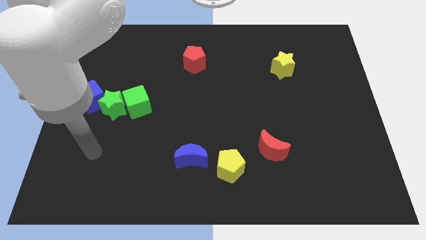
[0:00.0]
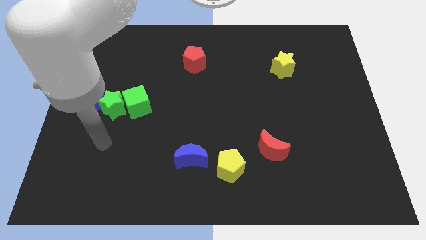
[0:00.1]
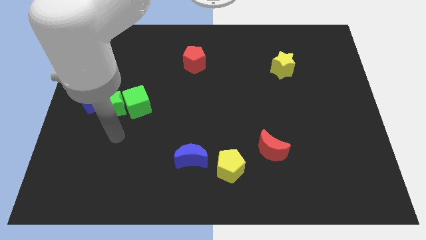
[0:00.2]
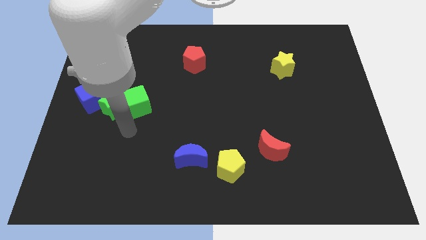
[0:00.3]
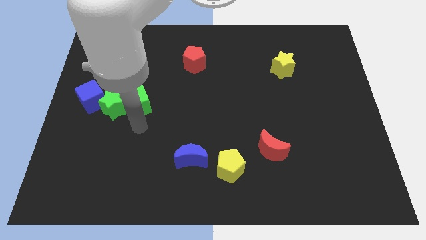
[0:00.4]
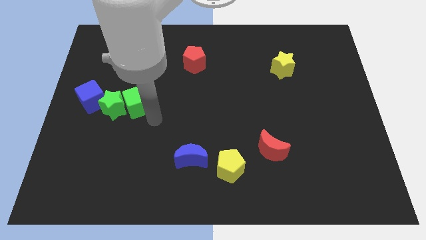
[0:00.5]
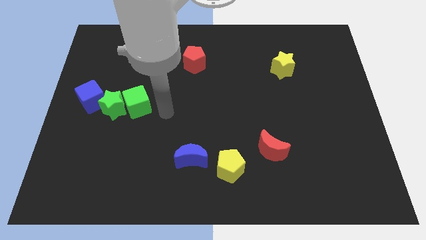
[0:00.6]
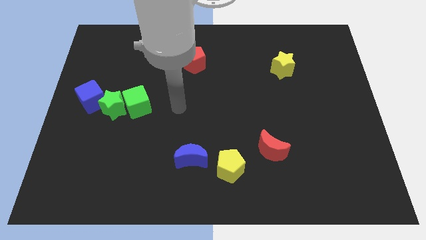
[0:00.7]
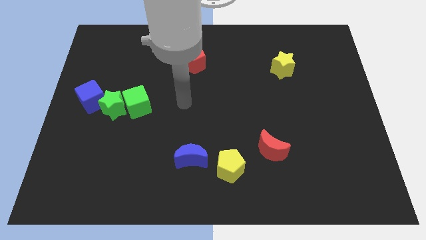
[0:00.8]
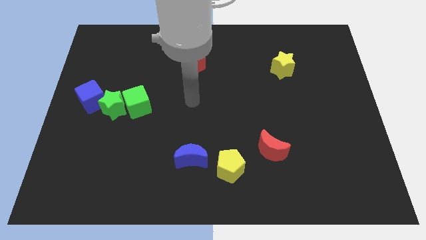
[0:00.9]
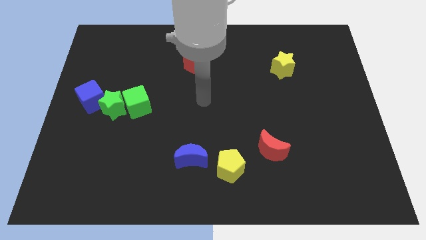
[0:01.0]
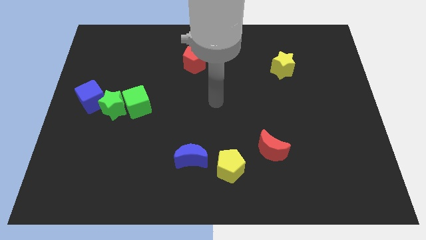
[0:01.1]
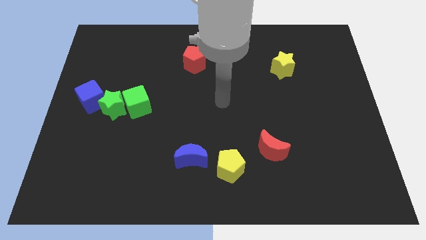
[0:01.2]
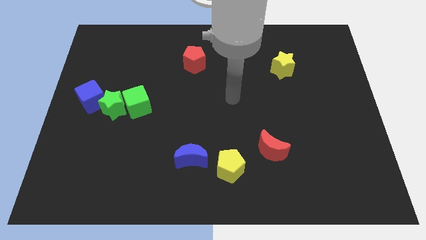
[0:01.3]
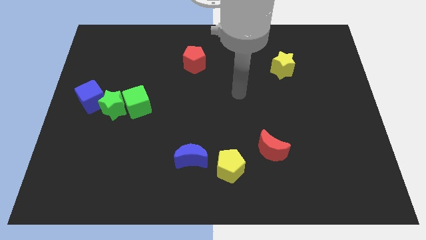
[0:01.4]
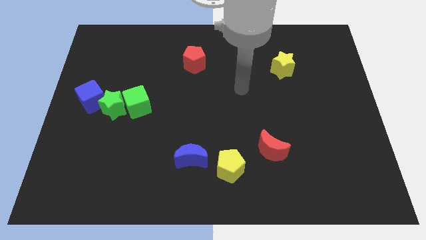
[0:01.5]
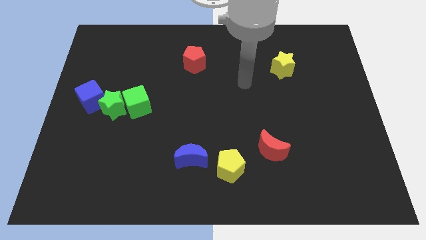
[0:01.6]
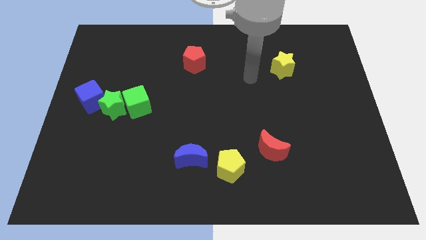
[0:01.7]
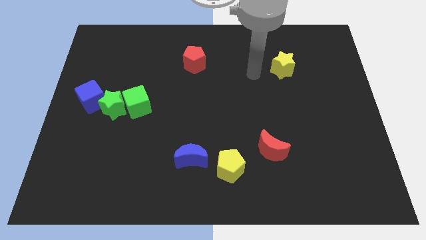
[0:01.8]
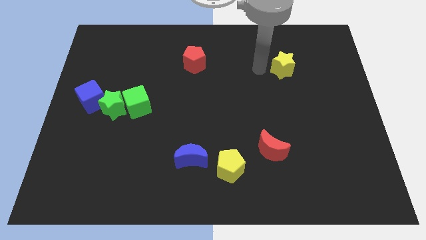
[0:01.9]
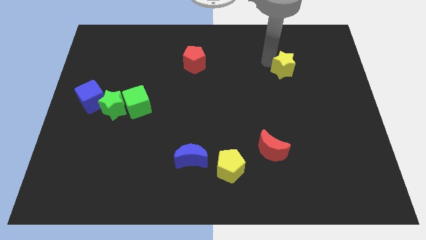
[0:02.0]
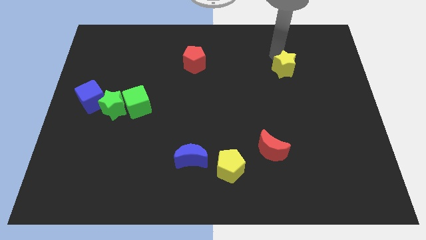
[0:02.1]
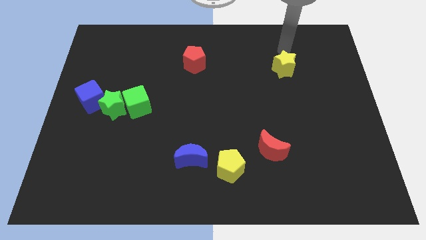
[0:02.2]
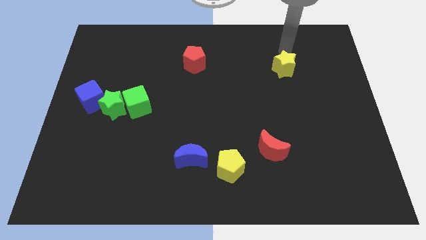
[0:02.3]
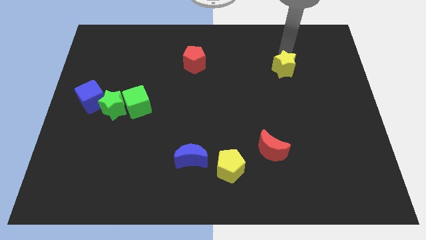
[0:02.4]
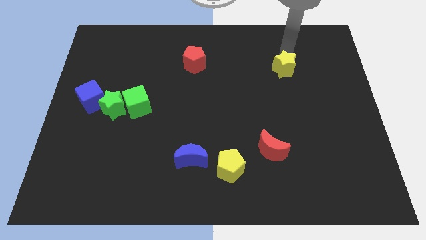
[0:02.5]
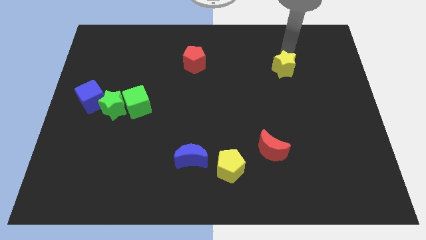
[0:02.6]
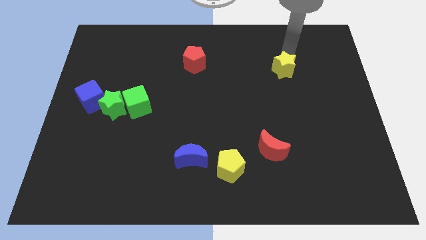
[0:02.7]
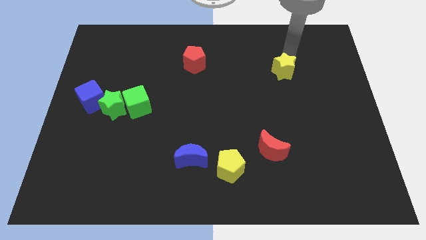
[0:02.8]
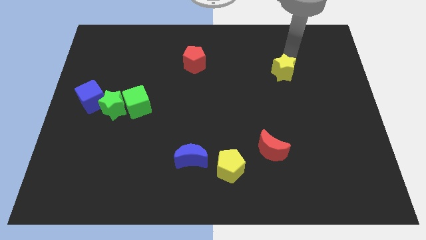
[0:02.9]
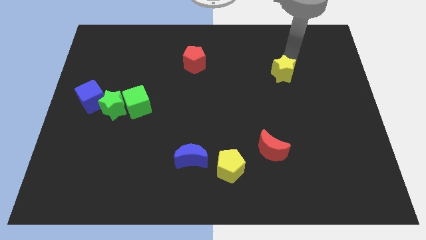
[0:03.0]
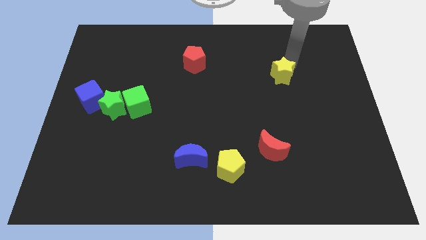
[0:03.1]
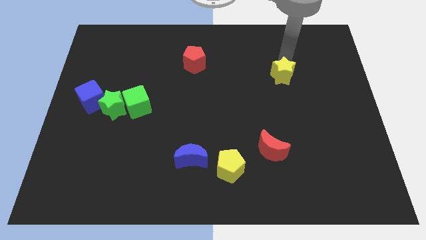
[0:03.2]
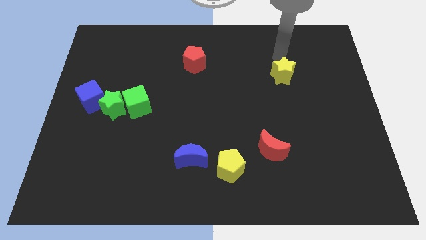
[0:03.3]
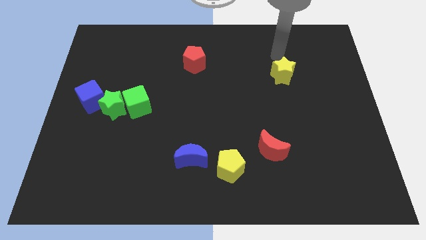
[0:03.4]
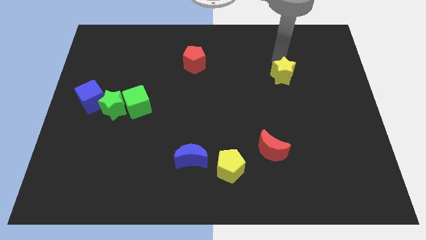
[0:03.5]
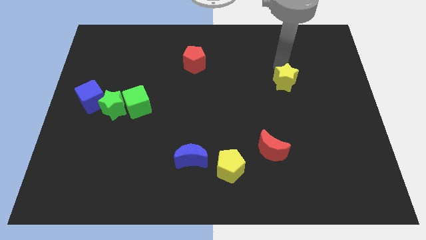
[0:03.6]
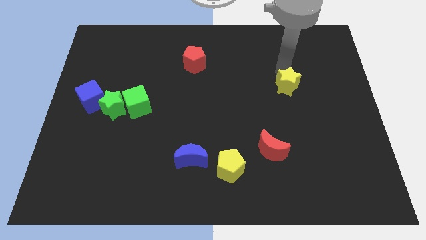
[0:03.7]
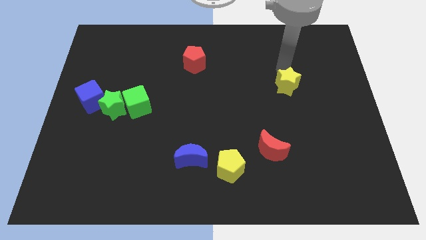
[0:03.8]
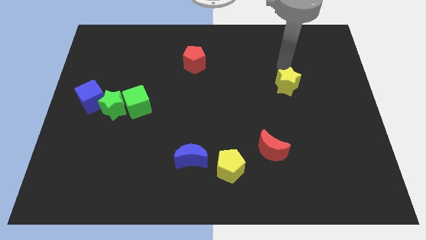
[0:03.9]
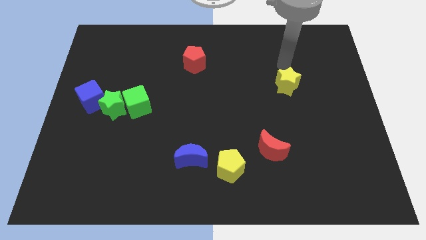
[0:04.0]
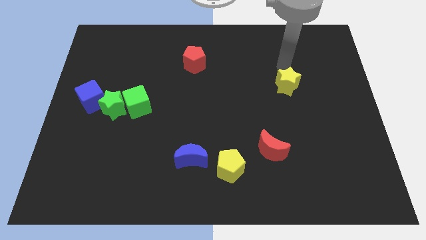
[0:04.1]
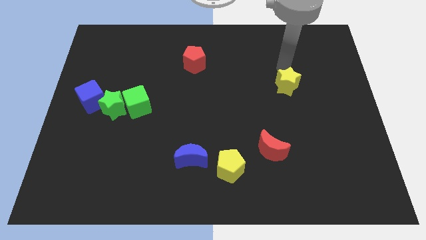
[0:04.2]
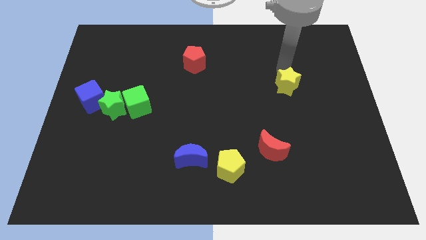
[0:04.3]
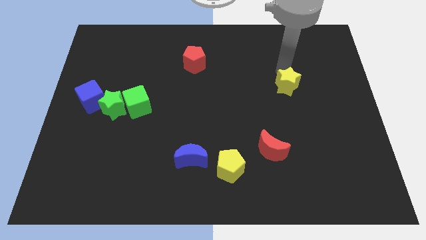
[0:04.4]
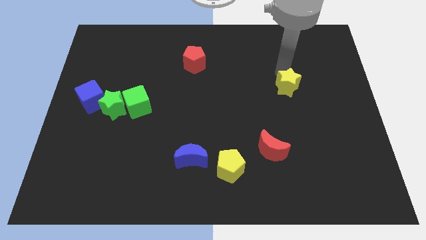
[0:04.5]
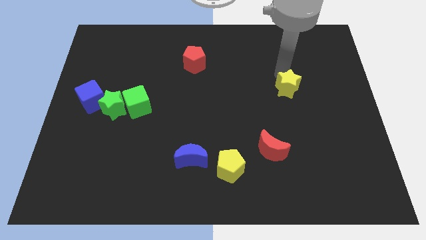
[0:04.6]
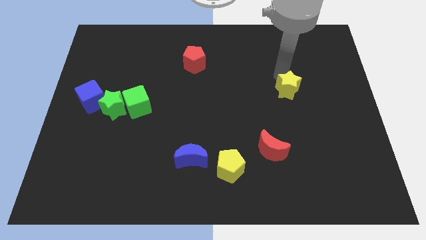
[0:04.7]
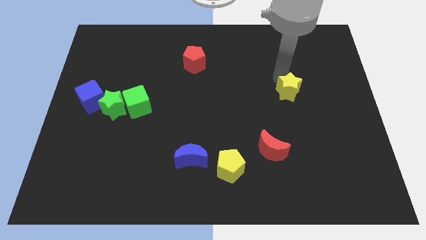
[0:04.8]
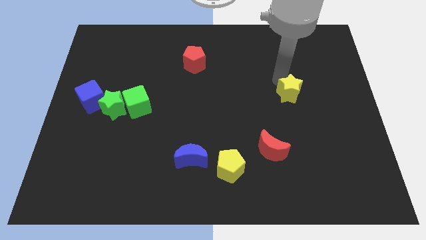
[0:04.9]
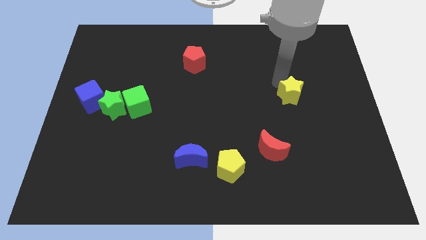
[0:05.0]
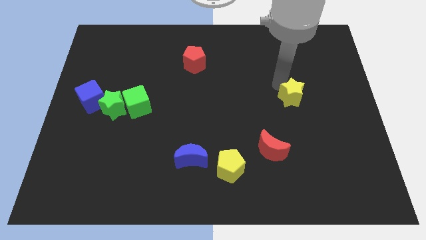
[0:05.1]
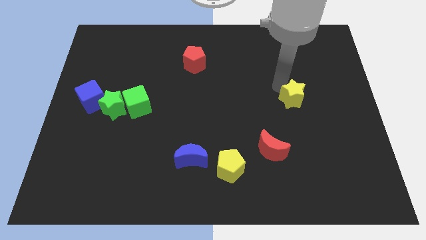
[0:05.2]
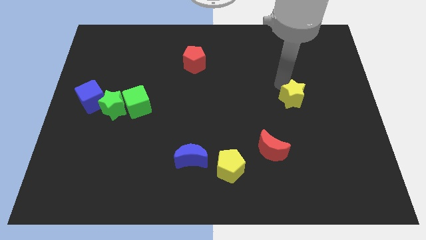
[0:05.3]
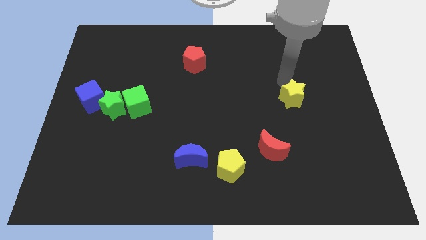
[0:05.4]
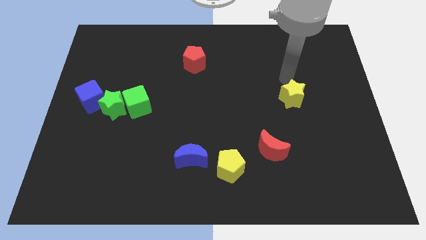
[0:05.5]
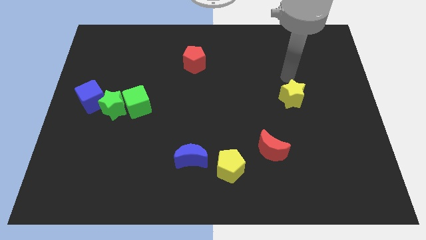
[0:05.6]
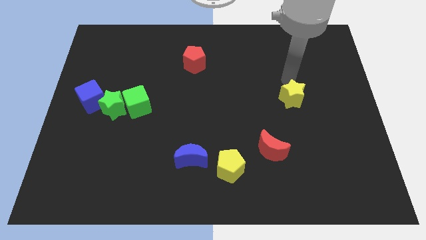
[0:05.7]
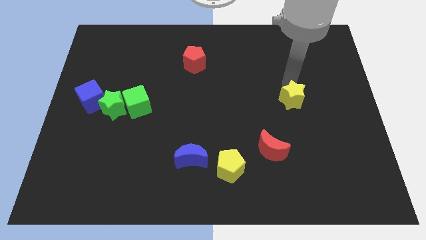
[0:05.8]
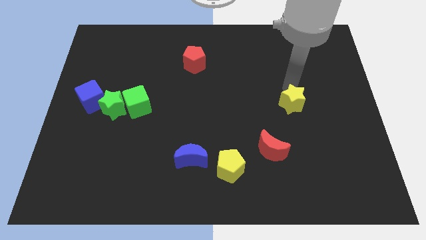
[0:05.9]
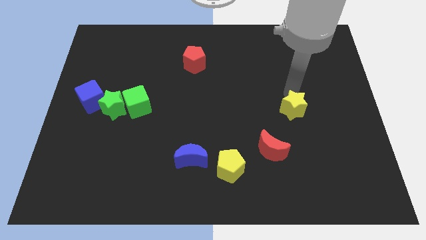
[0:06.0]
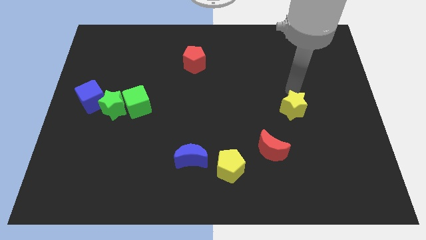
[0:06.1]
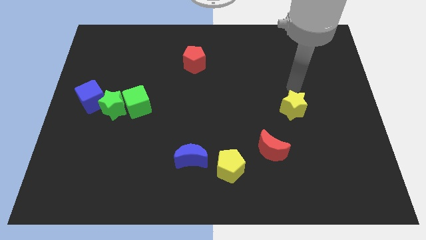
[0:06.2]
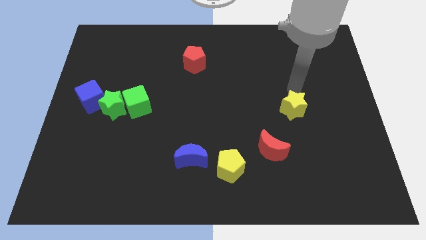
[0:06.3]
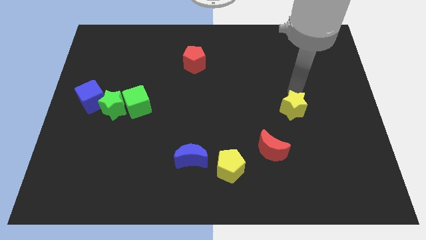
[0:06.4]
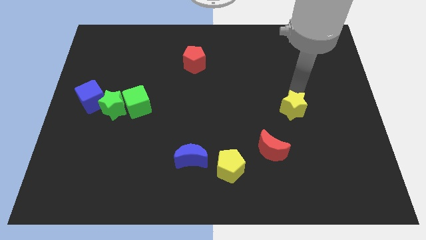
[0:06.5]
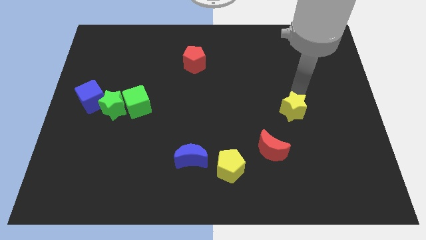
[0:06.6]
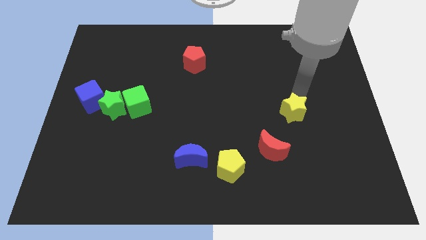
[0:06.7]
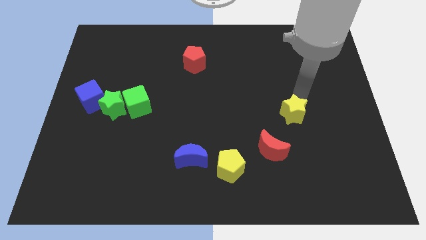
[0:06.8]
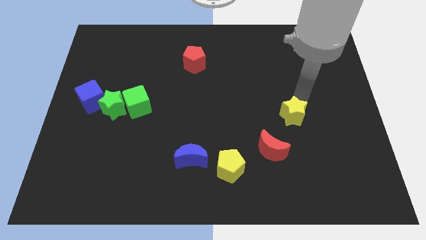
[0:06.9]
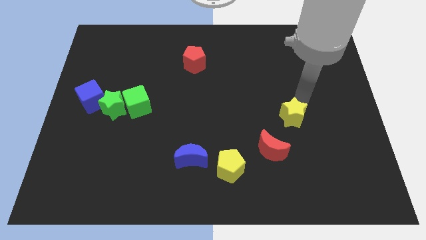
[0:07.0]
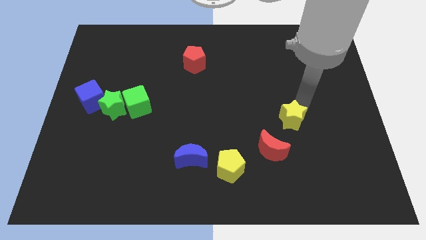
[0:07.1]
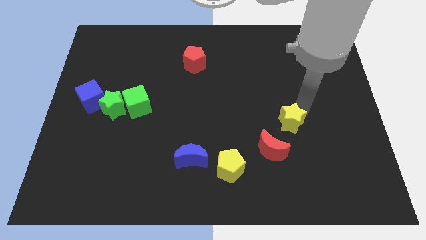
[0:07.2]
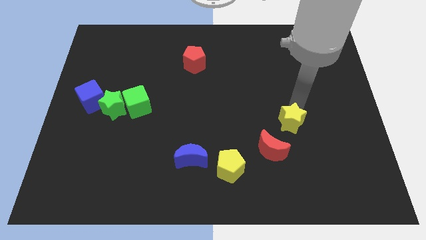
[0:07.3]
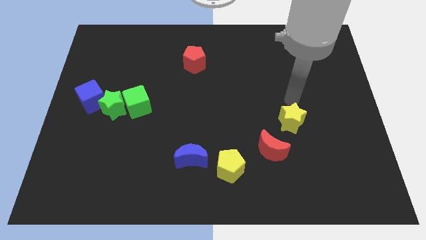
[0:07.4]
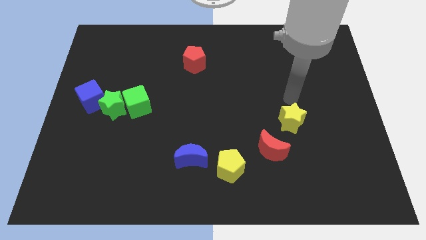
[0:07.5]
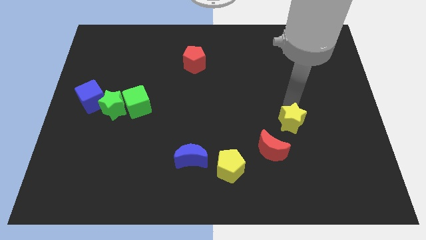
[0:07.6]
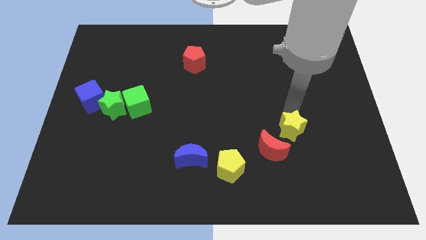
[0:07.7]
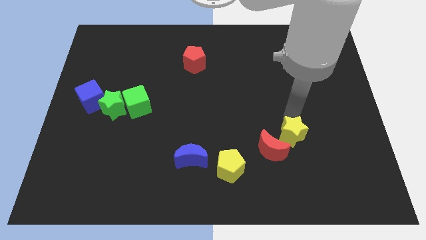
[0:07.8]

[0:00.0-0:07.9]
move the yellow star down

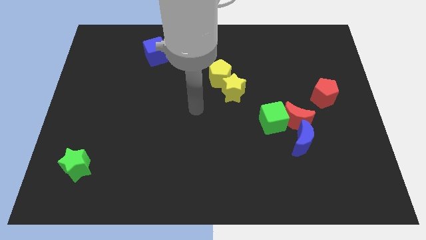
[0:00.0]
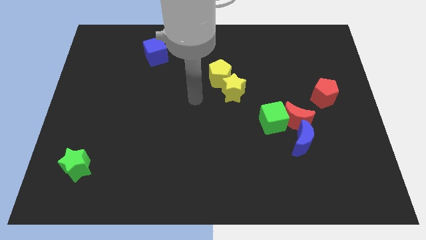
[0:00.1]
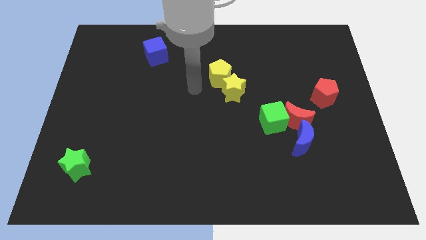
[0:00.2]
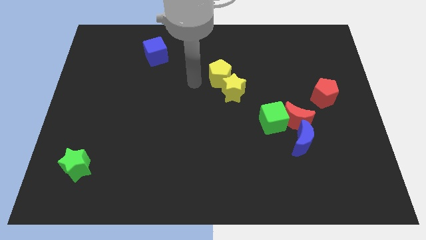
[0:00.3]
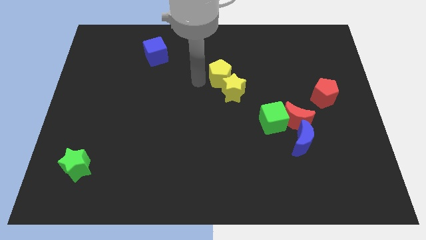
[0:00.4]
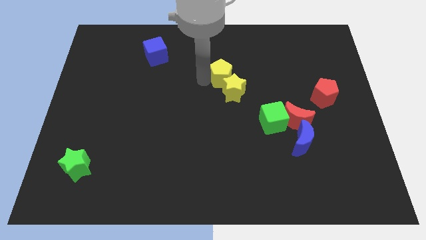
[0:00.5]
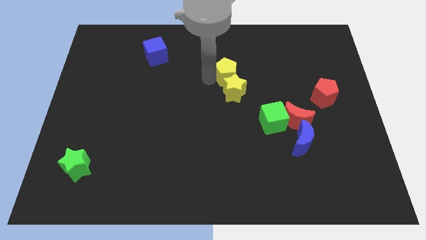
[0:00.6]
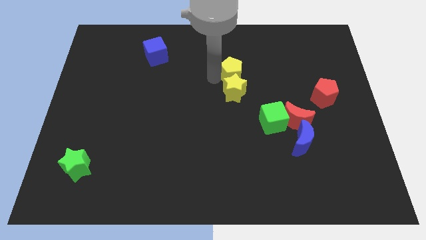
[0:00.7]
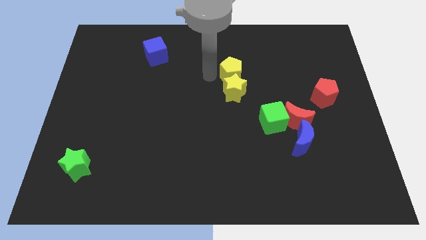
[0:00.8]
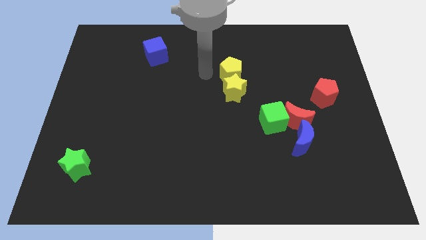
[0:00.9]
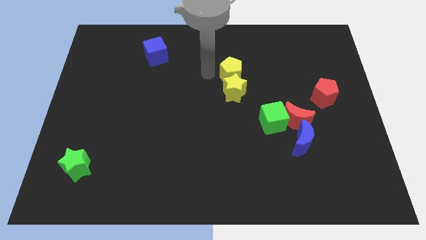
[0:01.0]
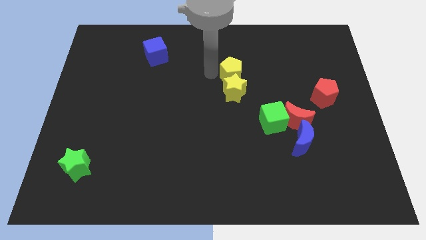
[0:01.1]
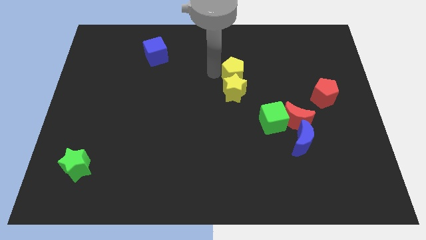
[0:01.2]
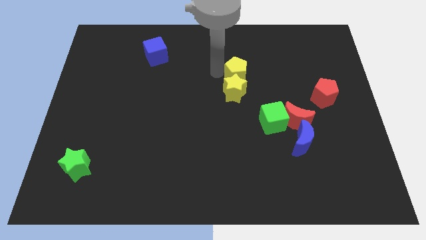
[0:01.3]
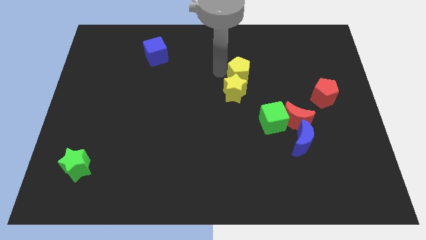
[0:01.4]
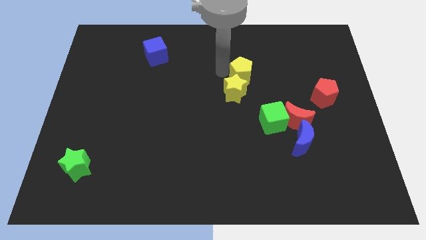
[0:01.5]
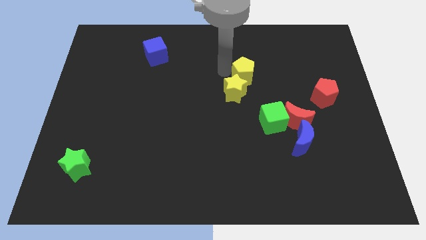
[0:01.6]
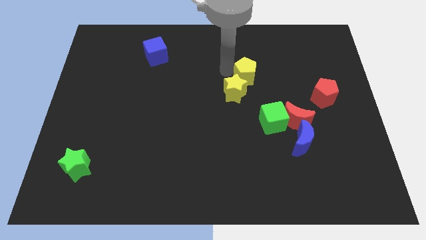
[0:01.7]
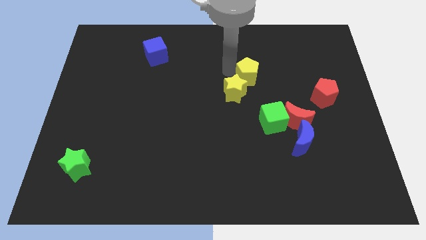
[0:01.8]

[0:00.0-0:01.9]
slightly move the yellow pentagon right
